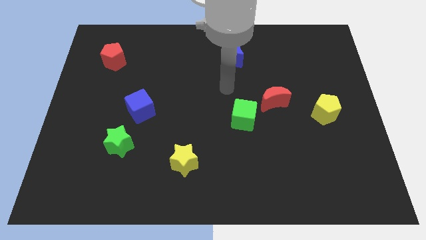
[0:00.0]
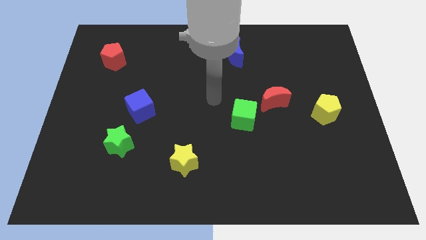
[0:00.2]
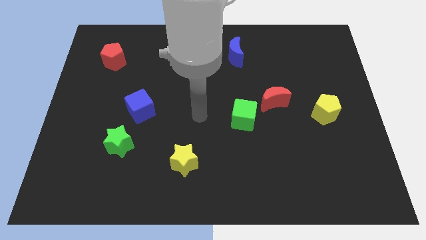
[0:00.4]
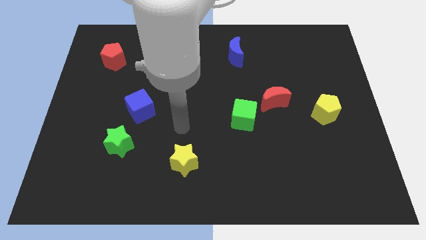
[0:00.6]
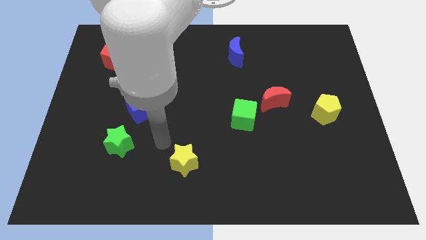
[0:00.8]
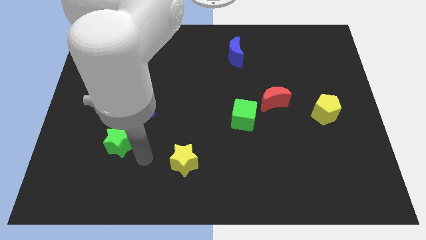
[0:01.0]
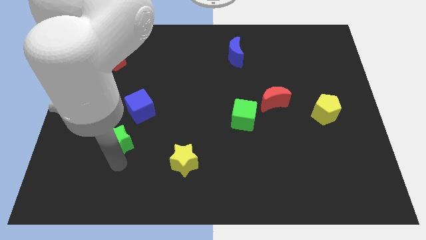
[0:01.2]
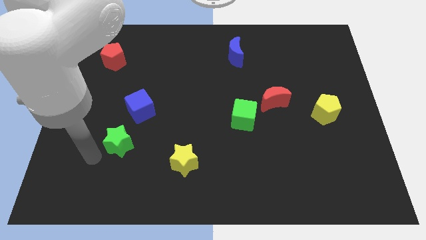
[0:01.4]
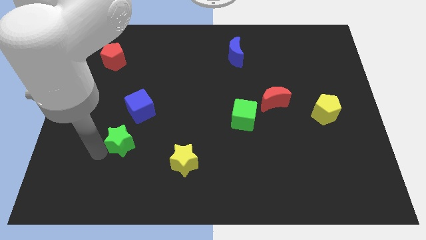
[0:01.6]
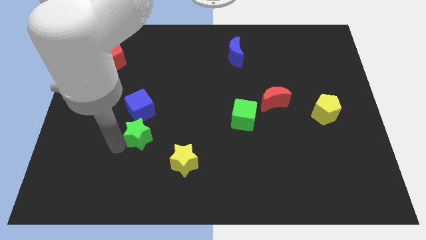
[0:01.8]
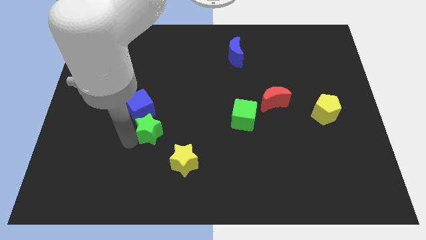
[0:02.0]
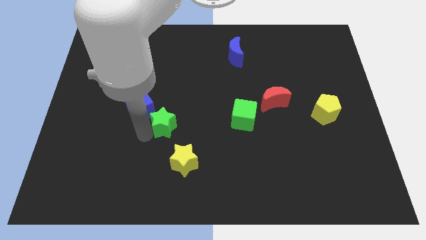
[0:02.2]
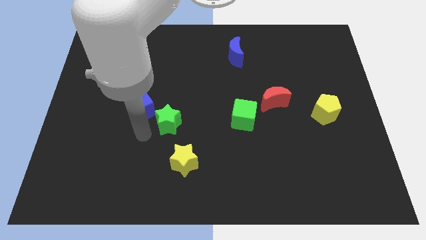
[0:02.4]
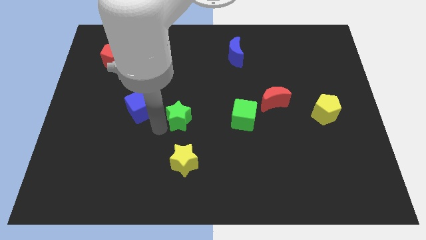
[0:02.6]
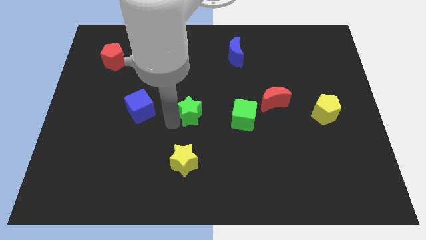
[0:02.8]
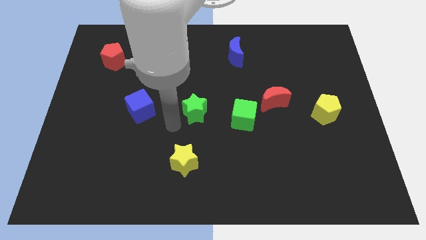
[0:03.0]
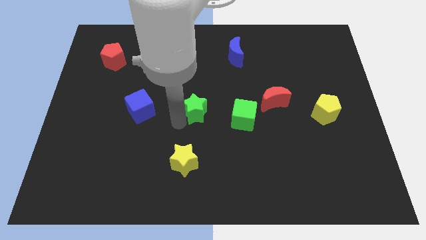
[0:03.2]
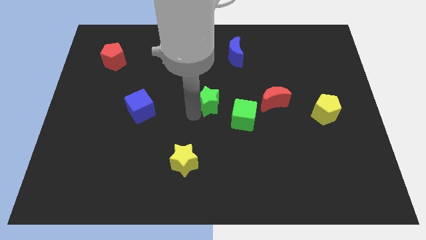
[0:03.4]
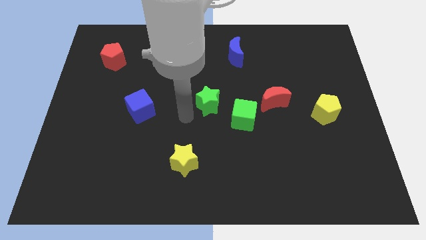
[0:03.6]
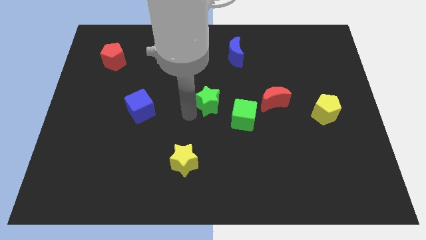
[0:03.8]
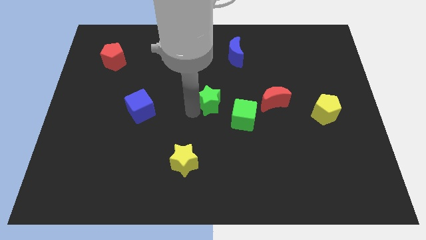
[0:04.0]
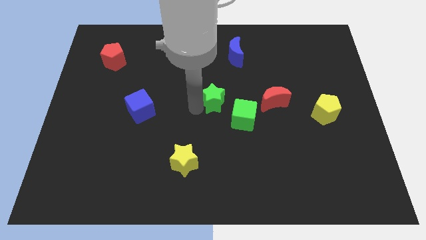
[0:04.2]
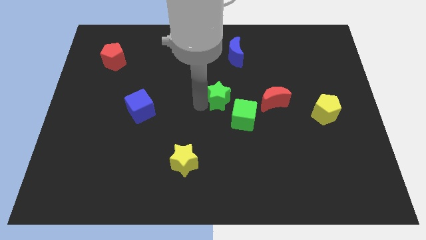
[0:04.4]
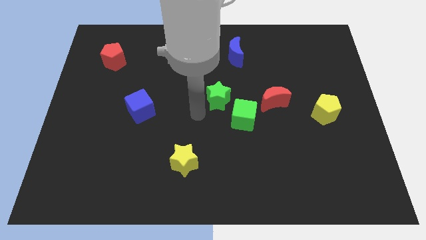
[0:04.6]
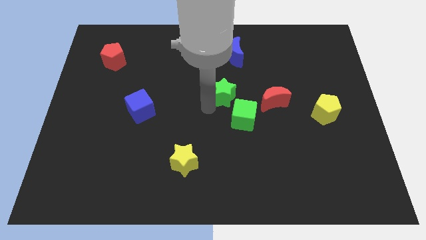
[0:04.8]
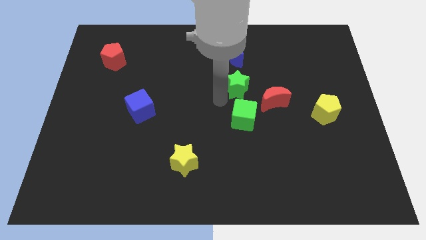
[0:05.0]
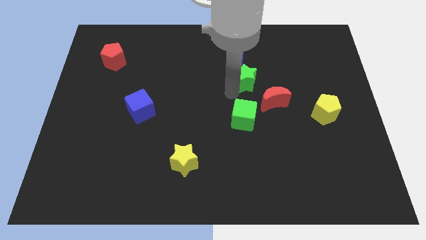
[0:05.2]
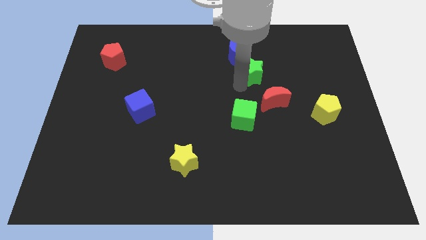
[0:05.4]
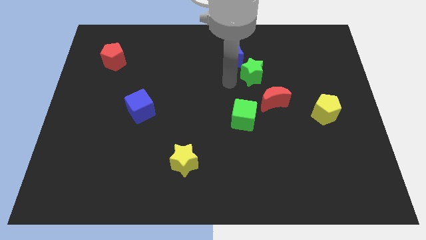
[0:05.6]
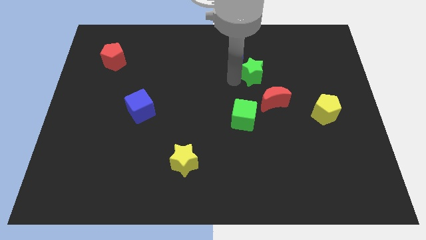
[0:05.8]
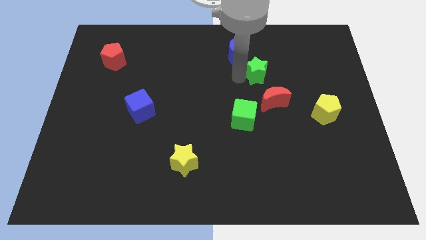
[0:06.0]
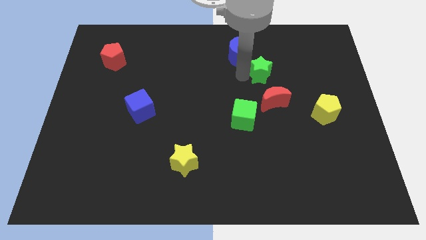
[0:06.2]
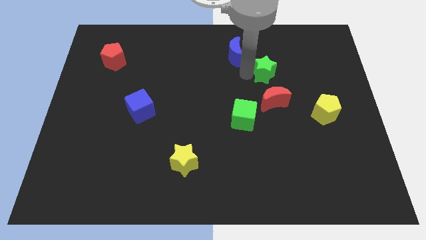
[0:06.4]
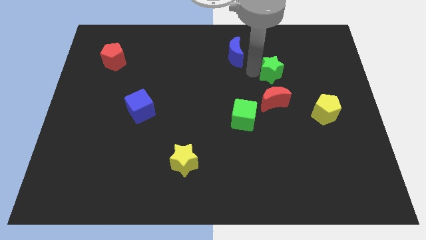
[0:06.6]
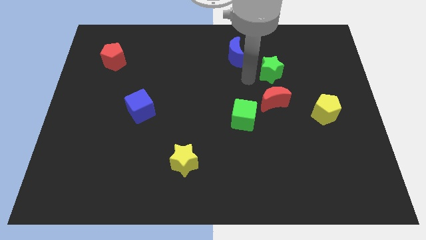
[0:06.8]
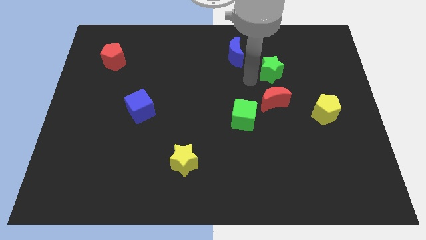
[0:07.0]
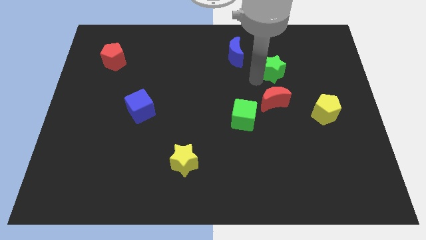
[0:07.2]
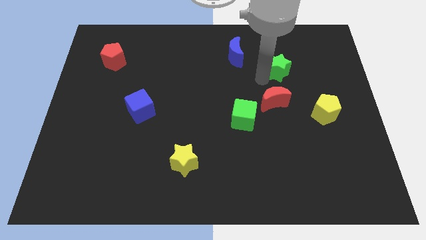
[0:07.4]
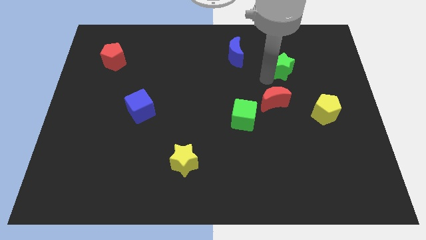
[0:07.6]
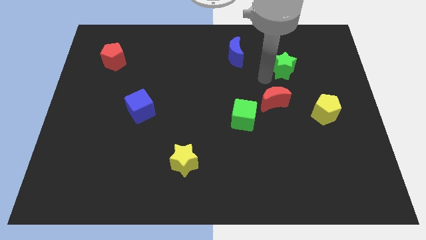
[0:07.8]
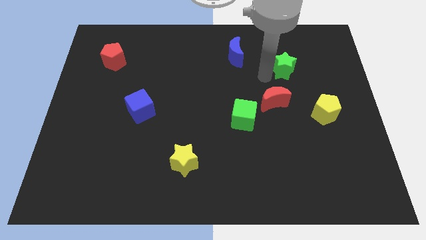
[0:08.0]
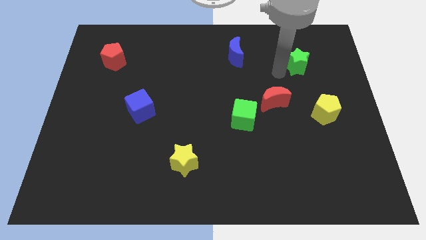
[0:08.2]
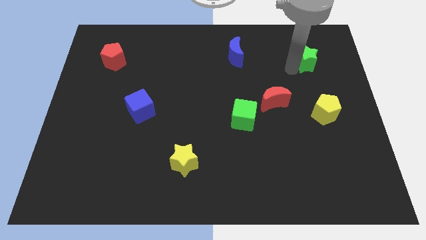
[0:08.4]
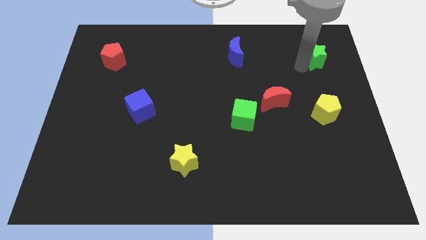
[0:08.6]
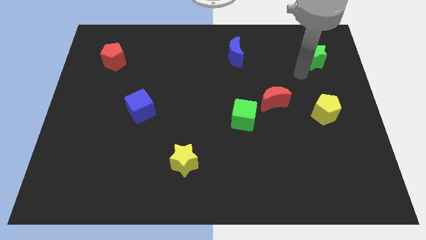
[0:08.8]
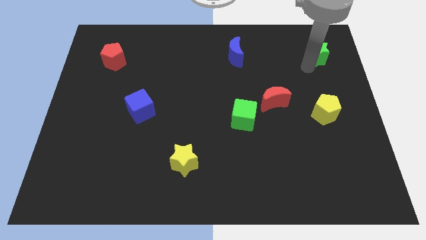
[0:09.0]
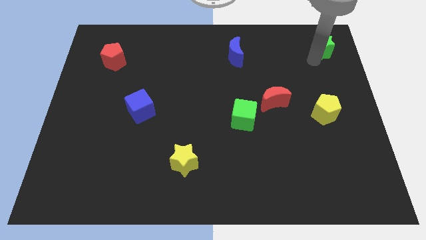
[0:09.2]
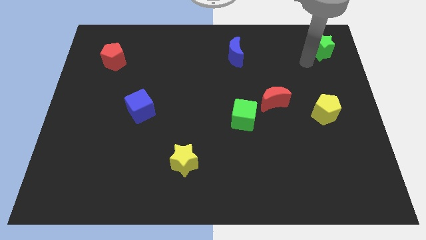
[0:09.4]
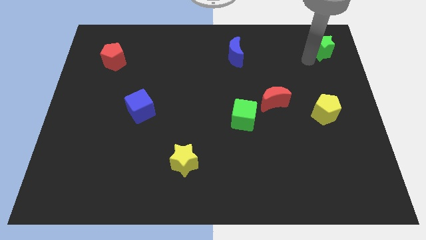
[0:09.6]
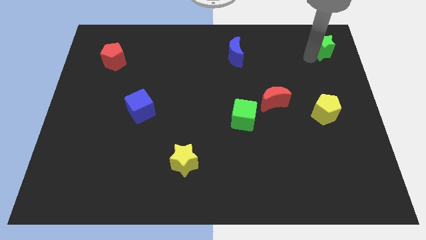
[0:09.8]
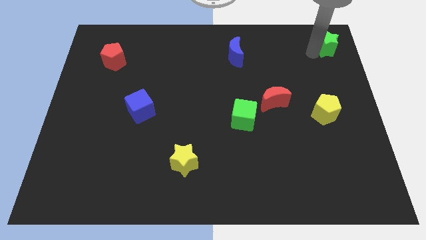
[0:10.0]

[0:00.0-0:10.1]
move the green star to the top right of the board
